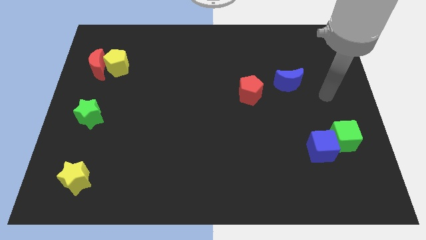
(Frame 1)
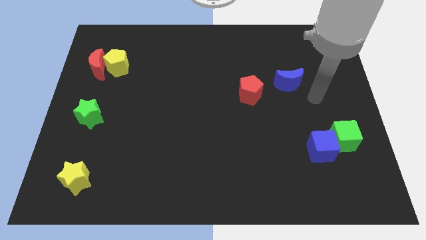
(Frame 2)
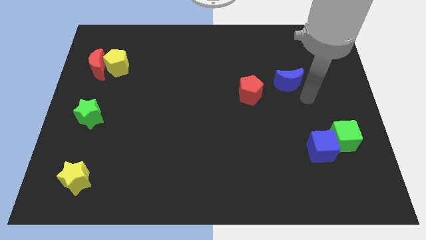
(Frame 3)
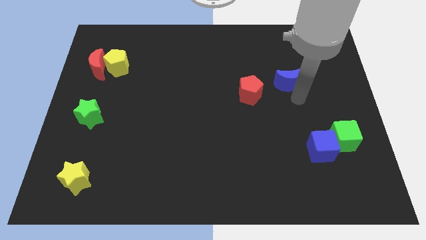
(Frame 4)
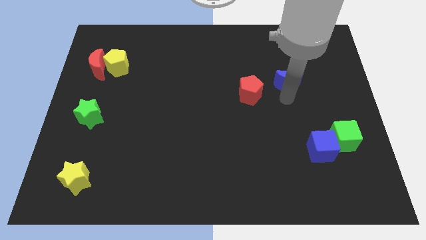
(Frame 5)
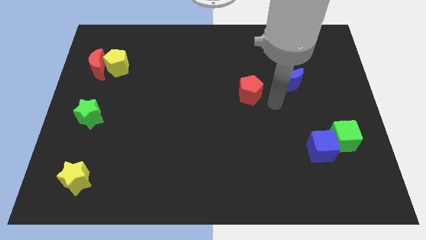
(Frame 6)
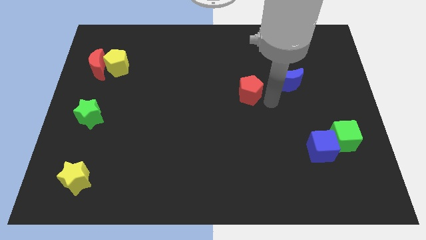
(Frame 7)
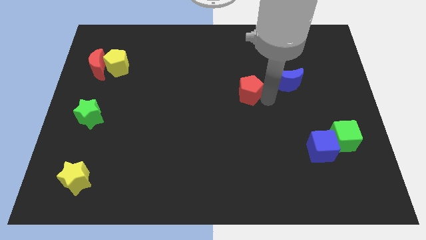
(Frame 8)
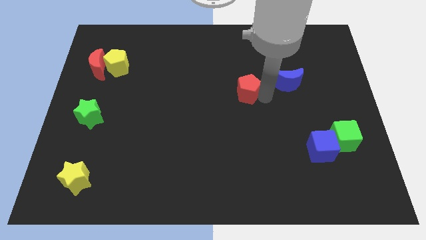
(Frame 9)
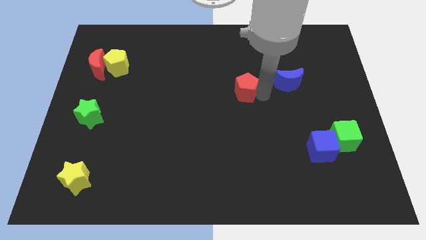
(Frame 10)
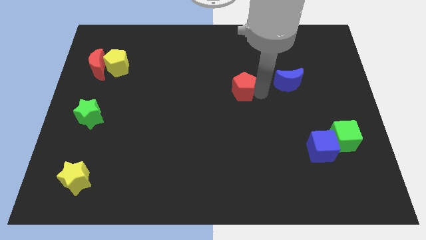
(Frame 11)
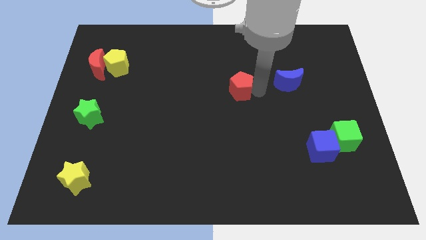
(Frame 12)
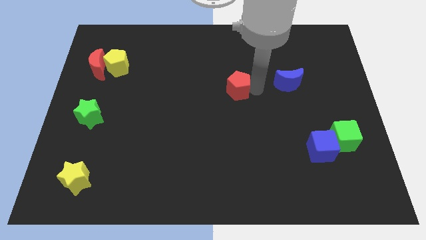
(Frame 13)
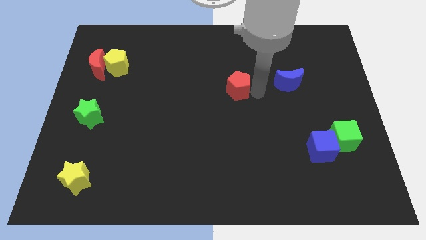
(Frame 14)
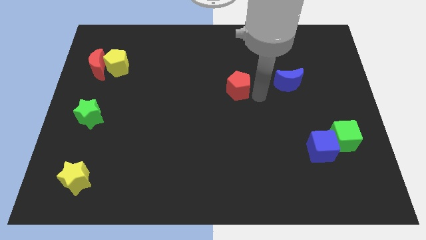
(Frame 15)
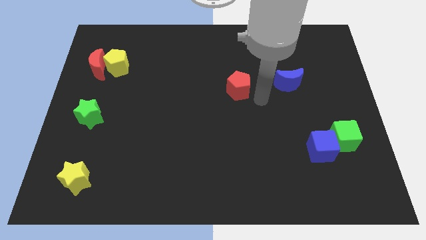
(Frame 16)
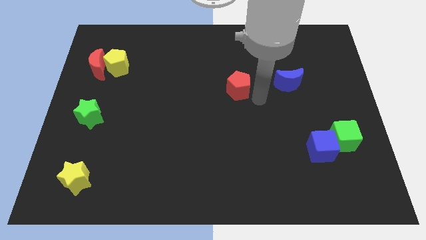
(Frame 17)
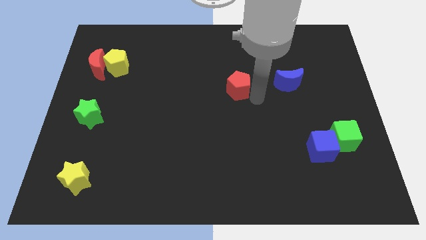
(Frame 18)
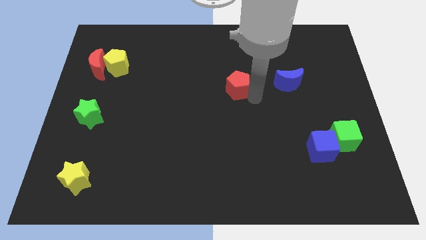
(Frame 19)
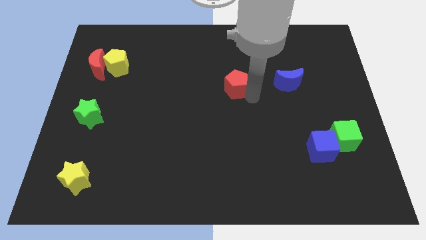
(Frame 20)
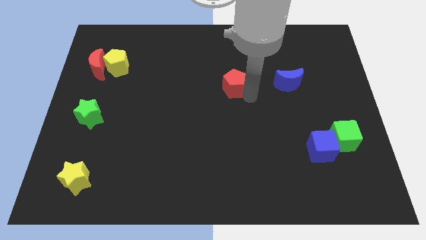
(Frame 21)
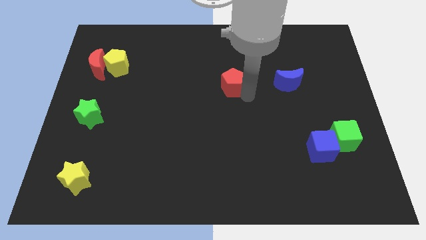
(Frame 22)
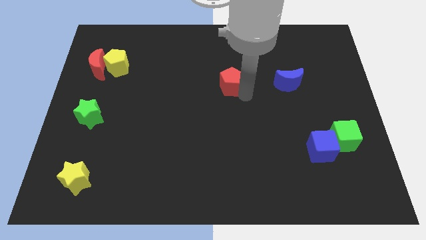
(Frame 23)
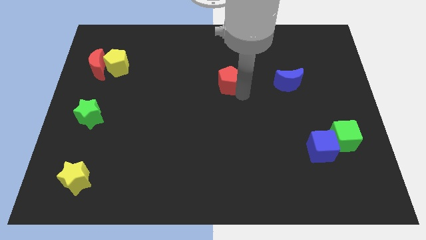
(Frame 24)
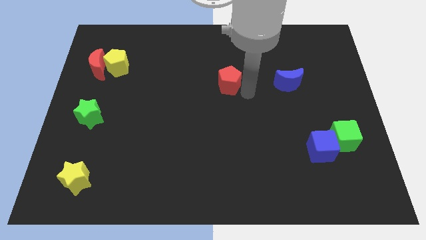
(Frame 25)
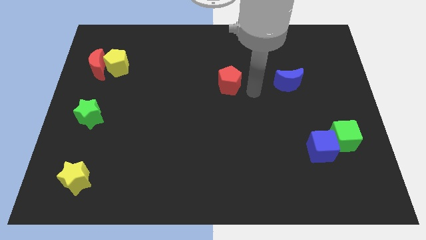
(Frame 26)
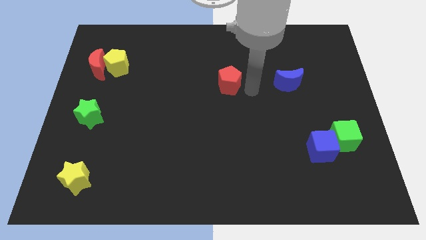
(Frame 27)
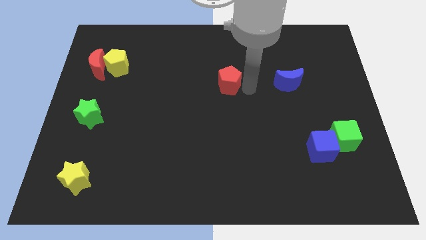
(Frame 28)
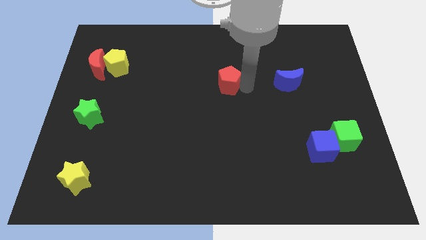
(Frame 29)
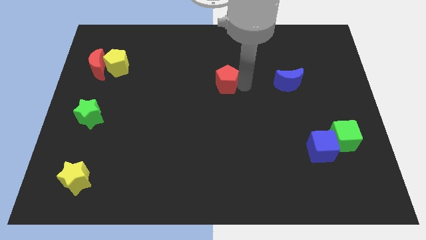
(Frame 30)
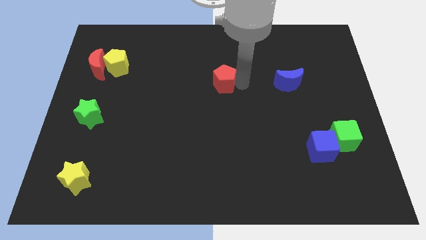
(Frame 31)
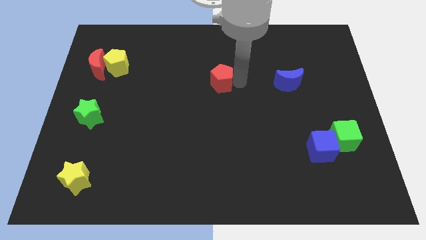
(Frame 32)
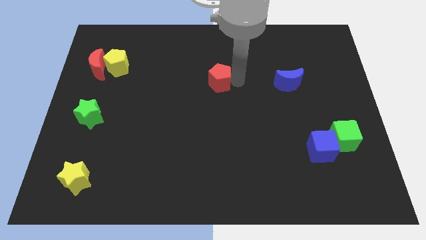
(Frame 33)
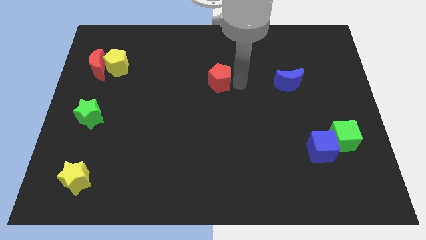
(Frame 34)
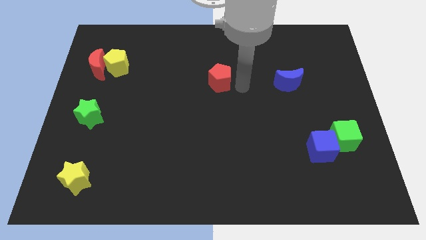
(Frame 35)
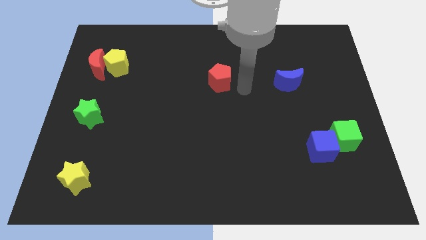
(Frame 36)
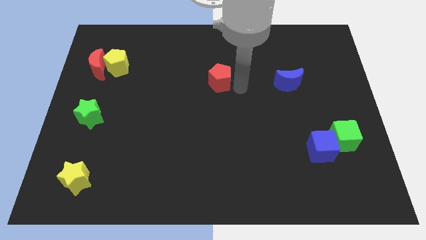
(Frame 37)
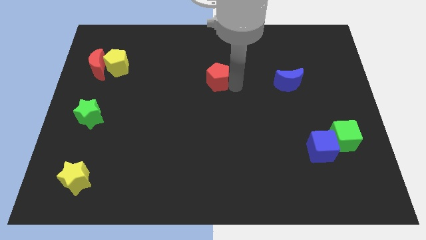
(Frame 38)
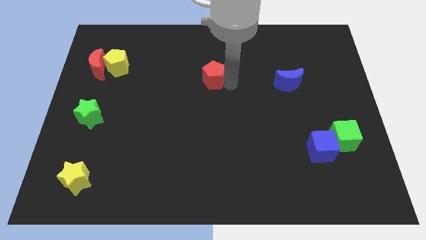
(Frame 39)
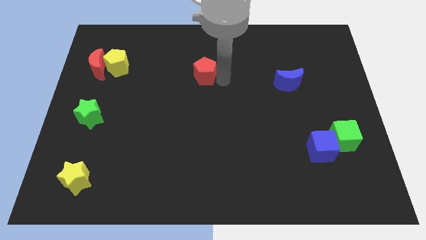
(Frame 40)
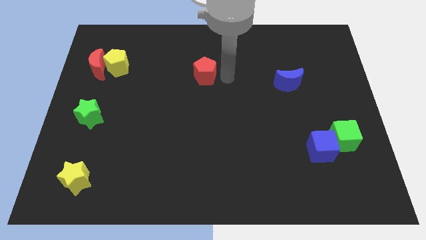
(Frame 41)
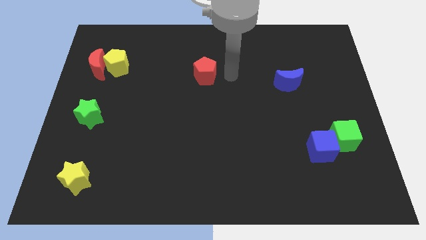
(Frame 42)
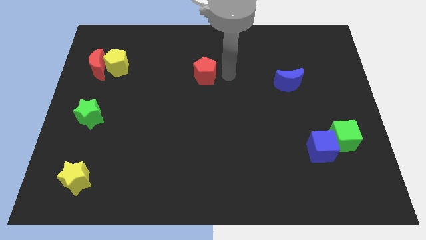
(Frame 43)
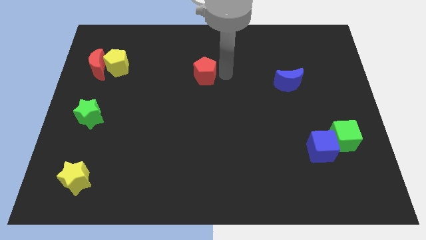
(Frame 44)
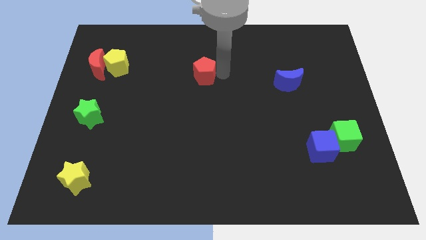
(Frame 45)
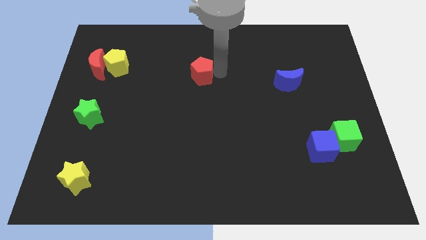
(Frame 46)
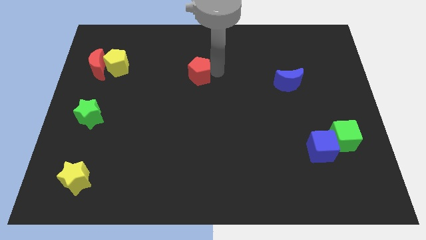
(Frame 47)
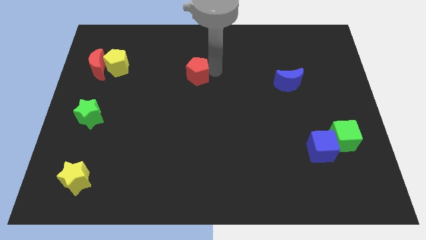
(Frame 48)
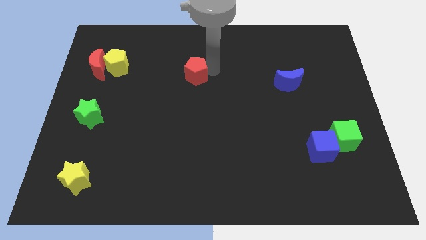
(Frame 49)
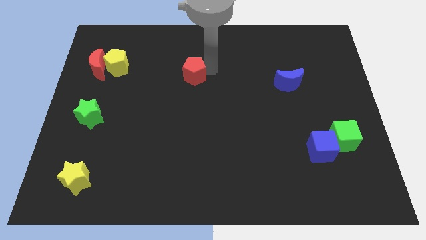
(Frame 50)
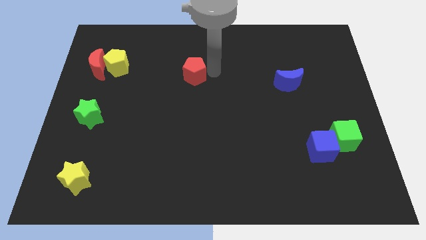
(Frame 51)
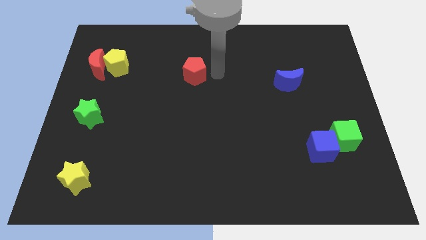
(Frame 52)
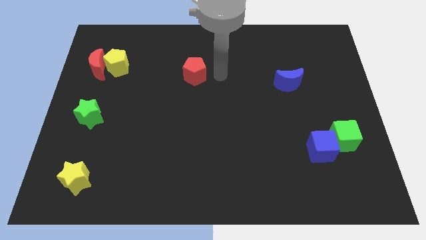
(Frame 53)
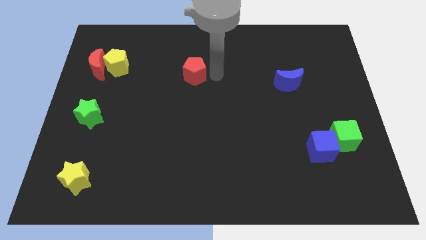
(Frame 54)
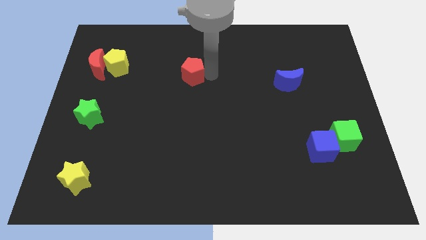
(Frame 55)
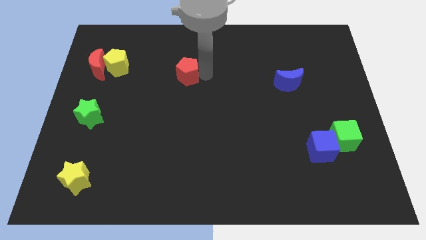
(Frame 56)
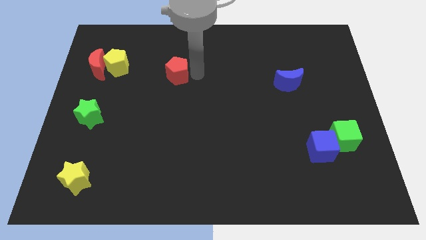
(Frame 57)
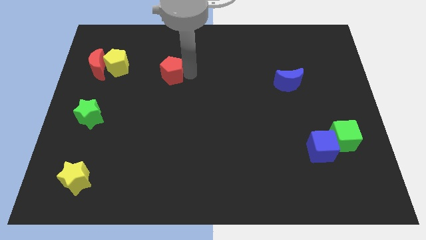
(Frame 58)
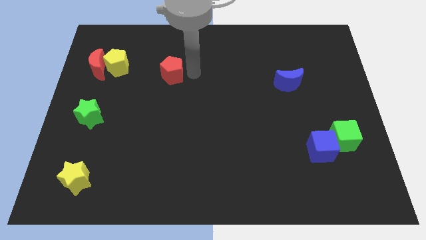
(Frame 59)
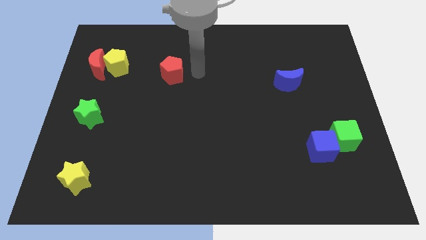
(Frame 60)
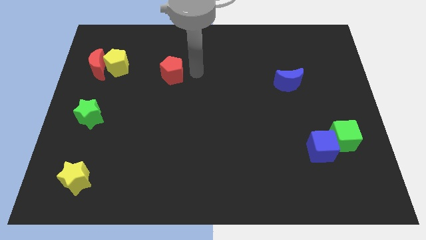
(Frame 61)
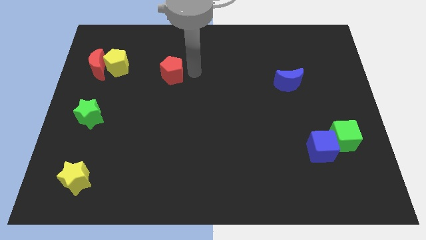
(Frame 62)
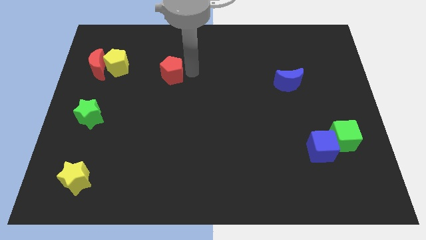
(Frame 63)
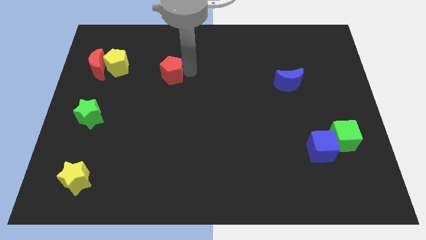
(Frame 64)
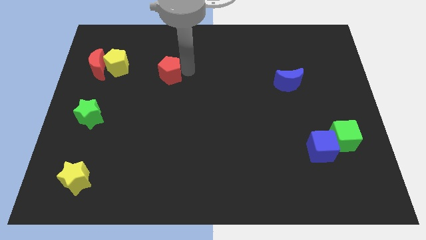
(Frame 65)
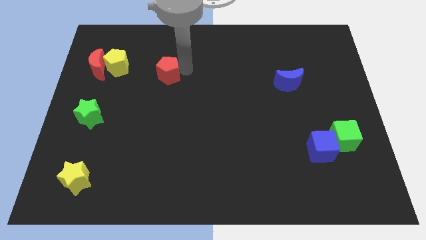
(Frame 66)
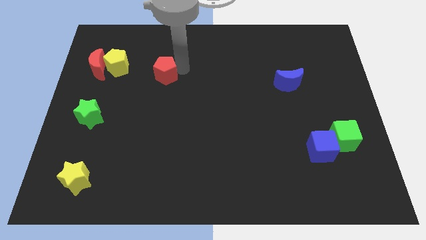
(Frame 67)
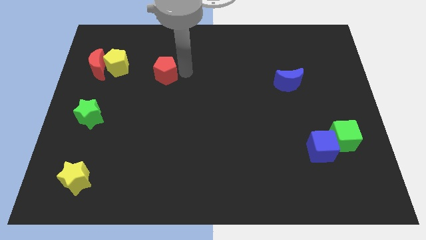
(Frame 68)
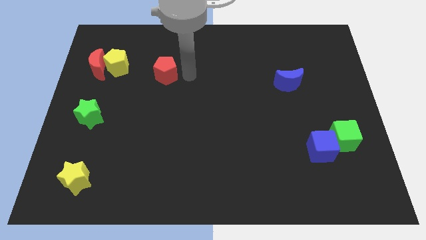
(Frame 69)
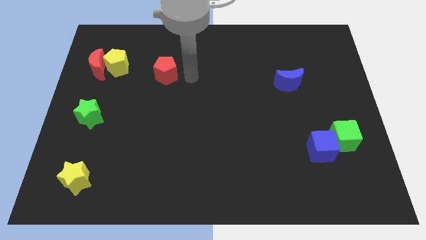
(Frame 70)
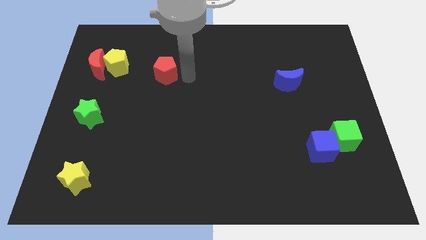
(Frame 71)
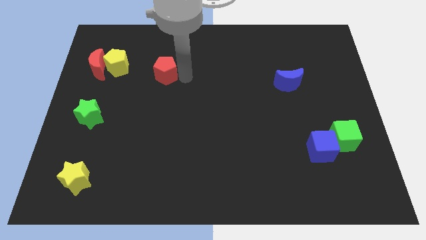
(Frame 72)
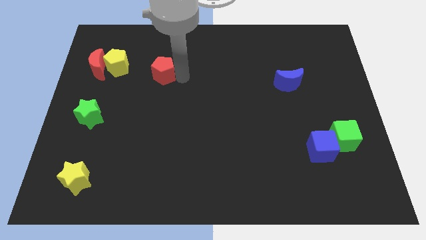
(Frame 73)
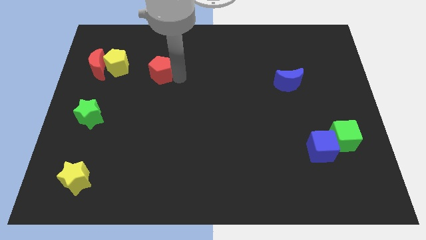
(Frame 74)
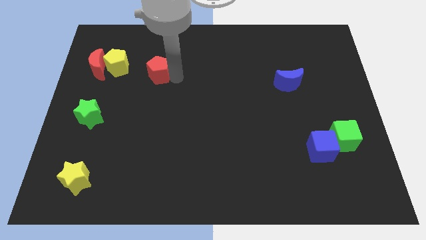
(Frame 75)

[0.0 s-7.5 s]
put the red pentagon right of the red moon

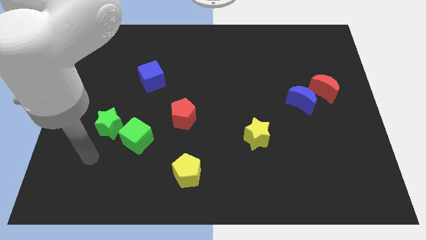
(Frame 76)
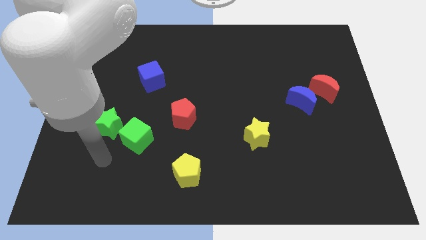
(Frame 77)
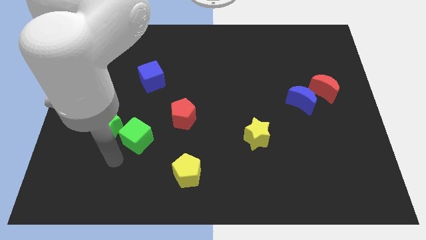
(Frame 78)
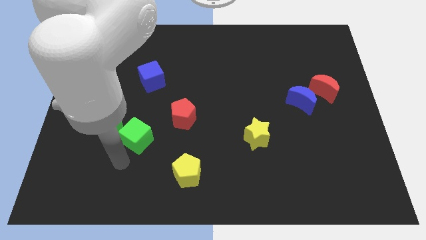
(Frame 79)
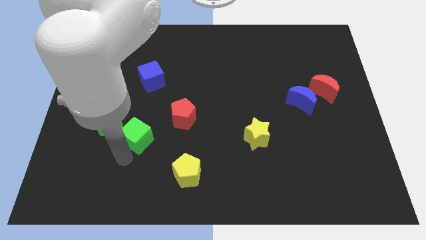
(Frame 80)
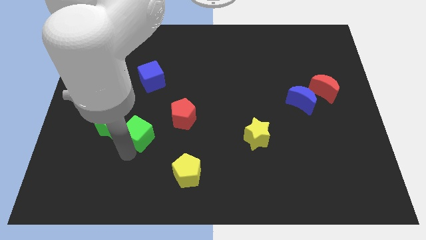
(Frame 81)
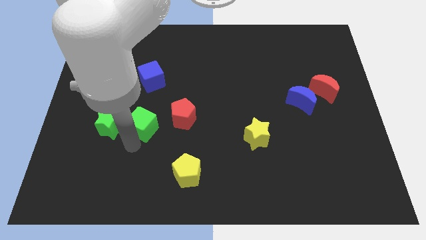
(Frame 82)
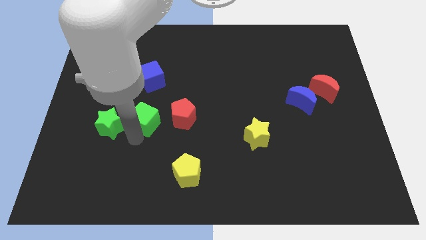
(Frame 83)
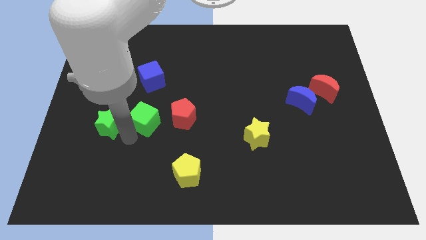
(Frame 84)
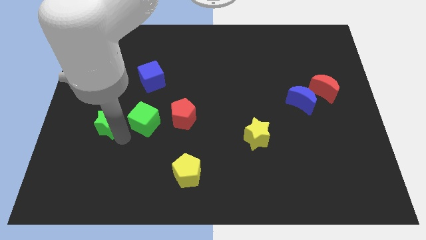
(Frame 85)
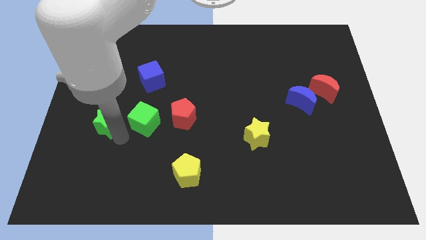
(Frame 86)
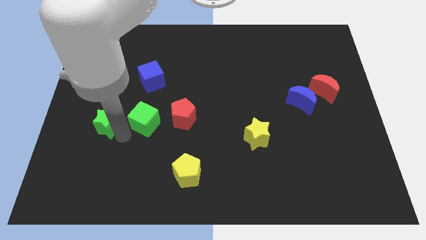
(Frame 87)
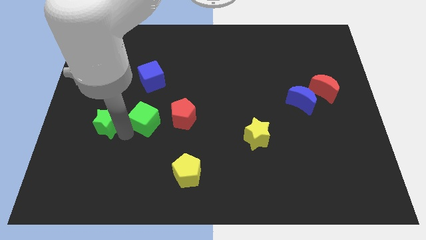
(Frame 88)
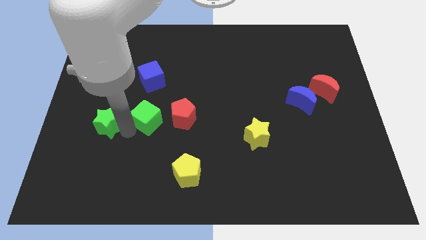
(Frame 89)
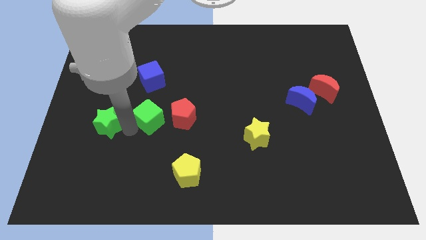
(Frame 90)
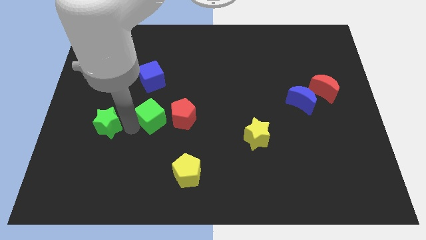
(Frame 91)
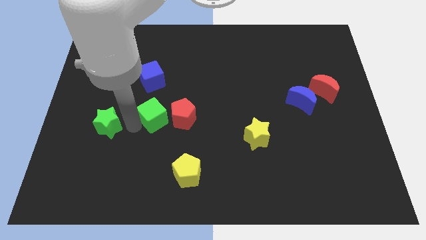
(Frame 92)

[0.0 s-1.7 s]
push the green cube to the top left of the red pentagon
